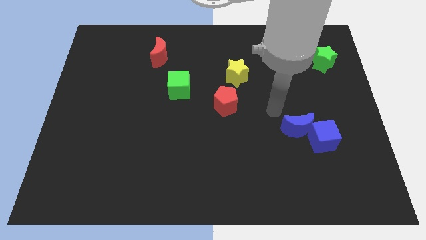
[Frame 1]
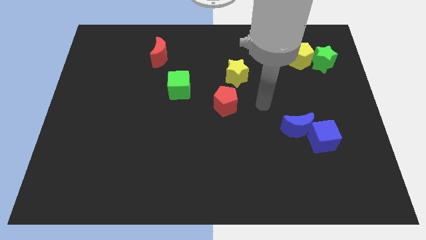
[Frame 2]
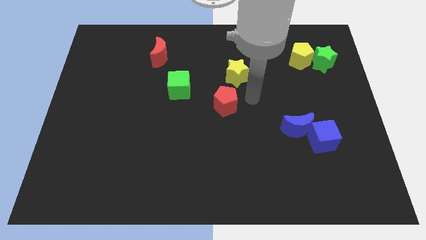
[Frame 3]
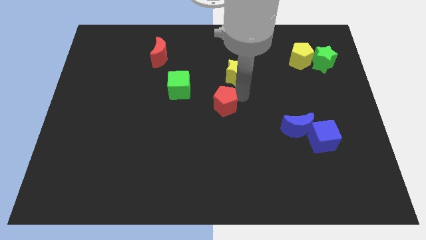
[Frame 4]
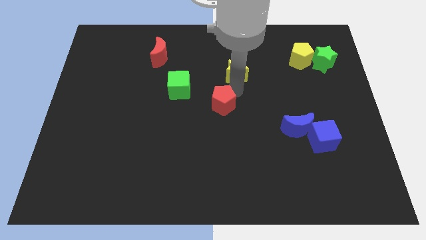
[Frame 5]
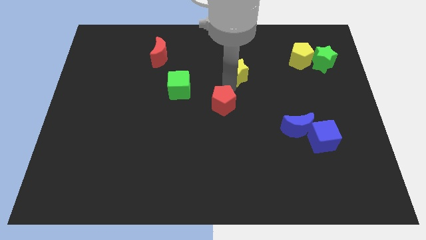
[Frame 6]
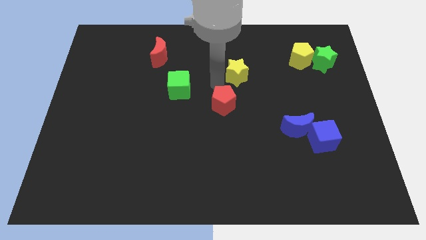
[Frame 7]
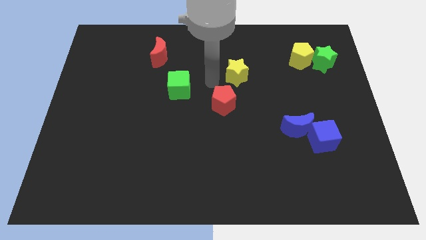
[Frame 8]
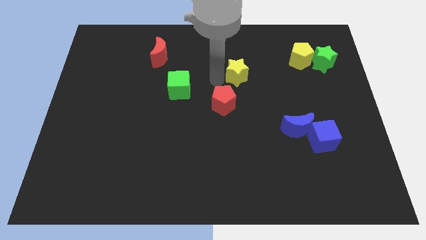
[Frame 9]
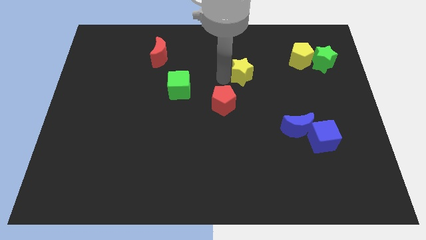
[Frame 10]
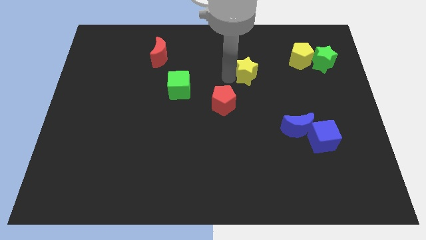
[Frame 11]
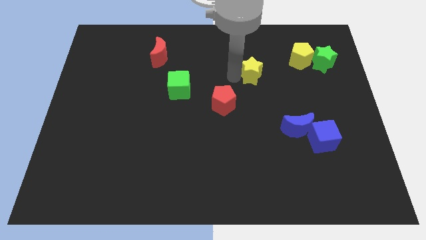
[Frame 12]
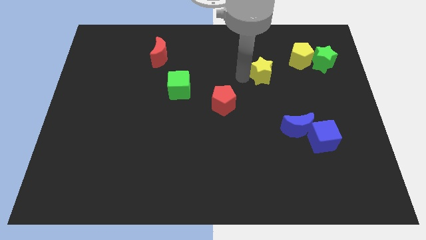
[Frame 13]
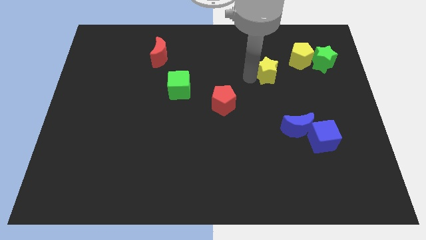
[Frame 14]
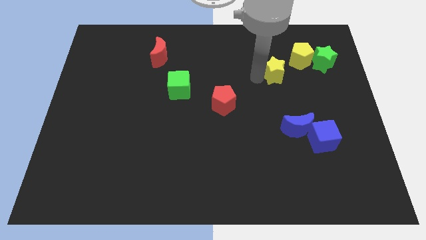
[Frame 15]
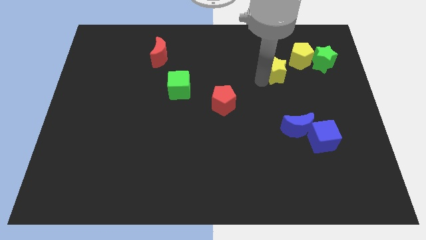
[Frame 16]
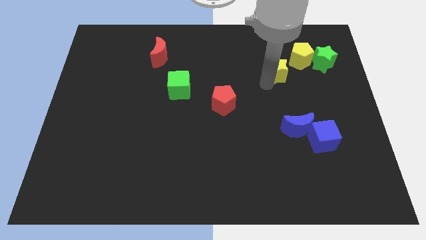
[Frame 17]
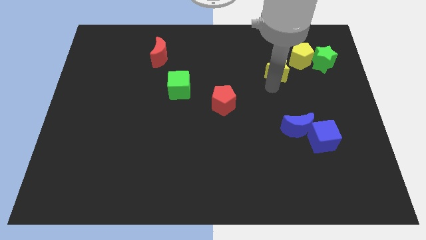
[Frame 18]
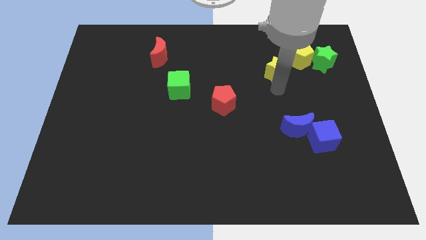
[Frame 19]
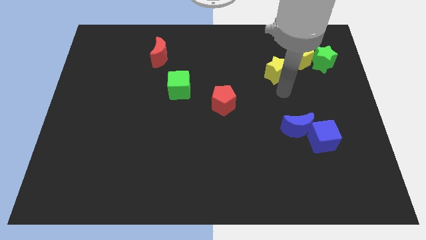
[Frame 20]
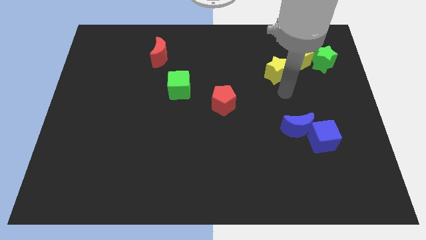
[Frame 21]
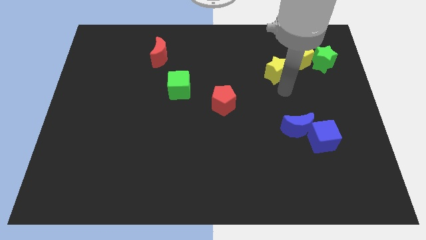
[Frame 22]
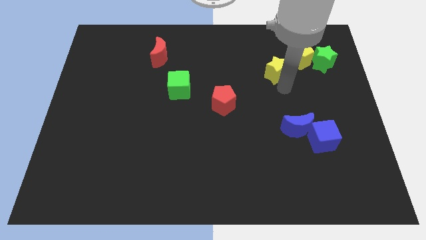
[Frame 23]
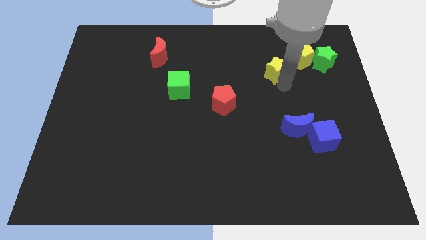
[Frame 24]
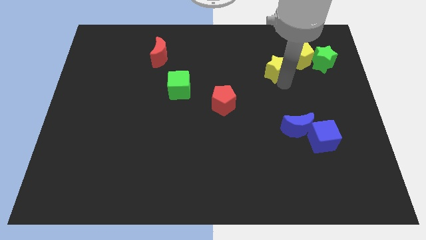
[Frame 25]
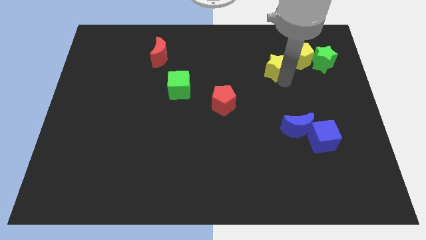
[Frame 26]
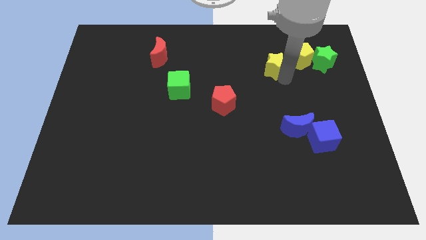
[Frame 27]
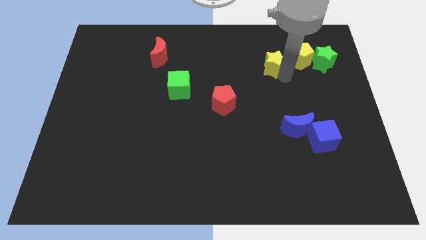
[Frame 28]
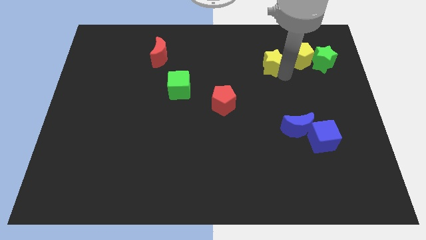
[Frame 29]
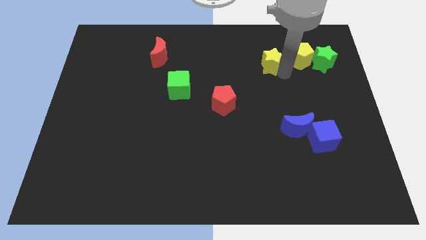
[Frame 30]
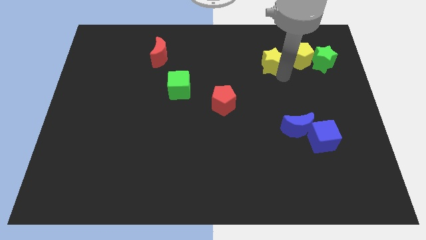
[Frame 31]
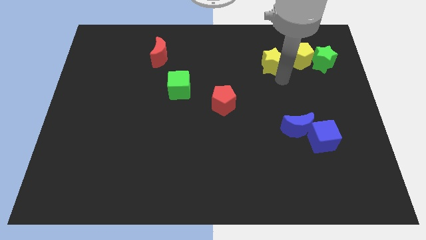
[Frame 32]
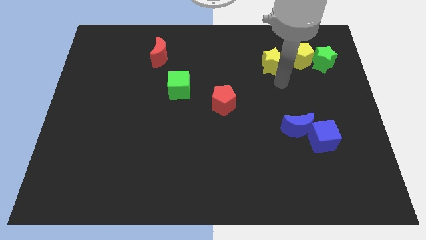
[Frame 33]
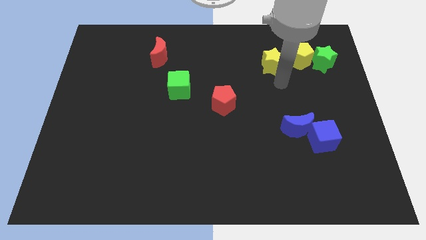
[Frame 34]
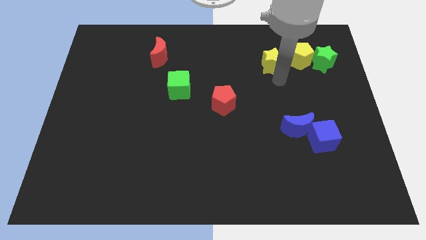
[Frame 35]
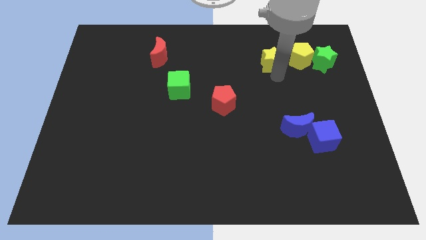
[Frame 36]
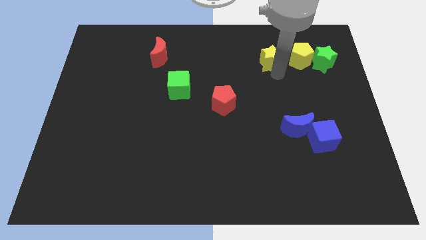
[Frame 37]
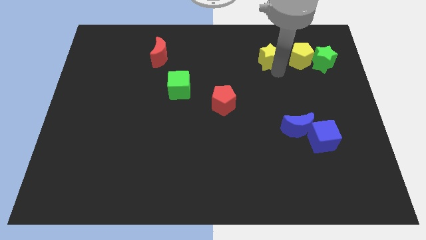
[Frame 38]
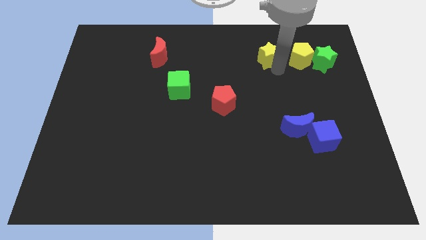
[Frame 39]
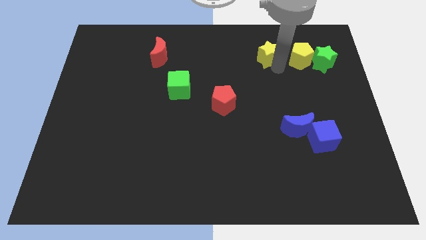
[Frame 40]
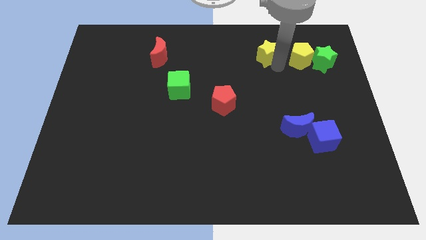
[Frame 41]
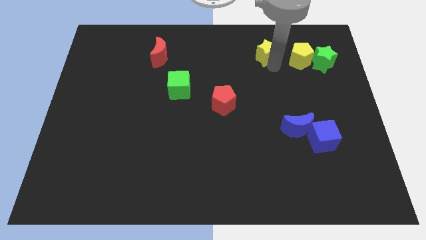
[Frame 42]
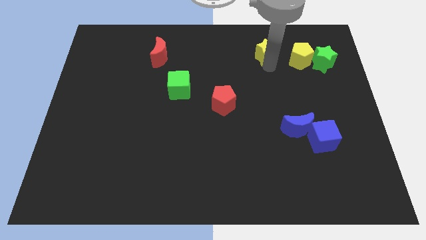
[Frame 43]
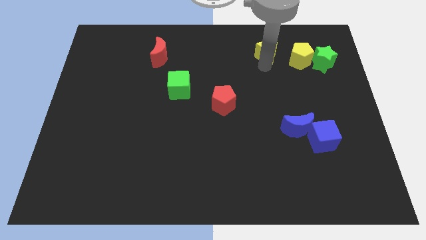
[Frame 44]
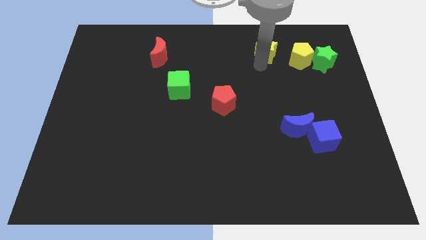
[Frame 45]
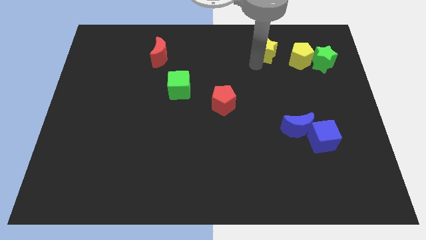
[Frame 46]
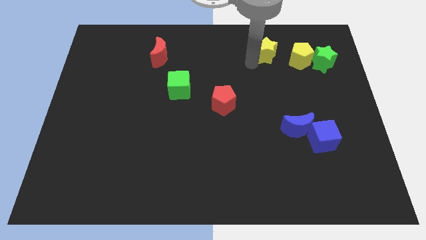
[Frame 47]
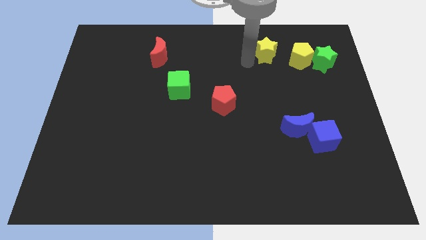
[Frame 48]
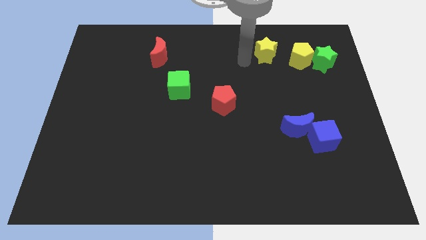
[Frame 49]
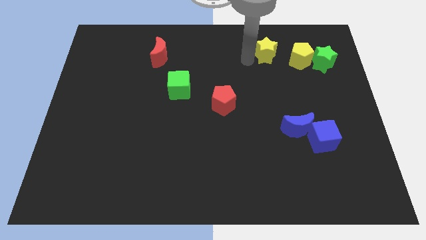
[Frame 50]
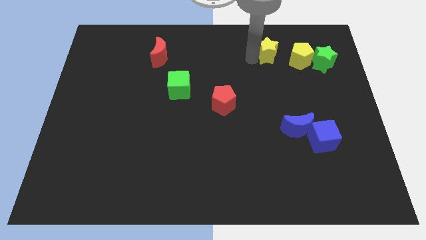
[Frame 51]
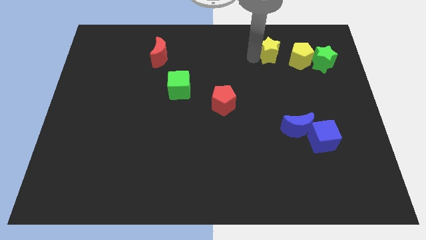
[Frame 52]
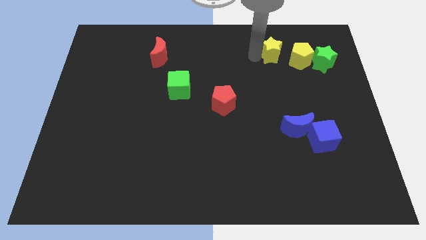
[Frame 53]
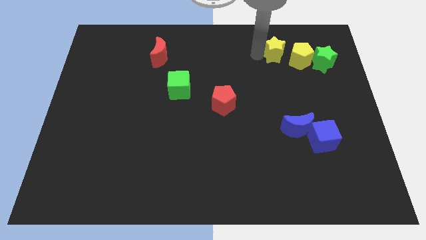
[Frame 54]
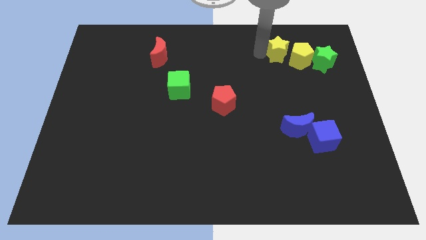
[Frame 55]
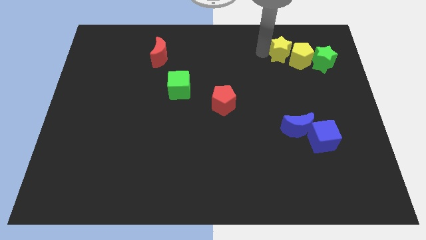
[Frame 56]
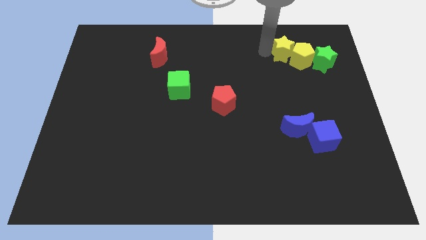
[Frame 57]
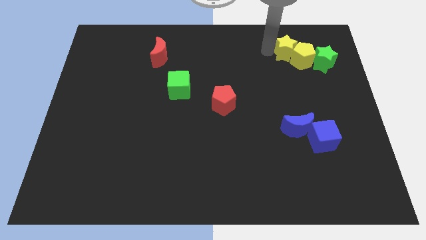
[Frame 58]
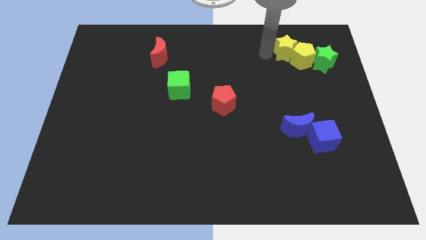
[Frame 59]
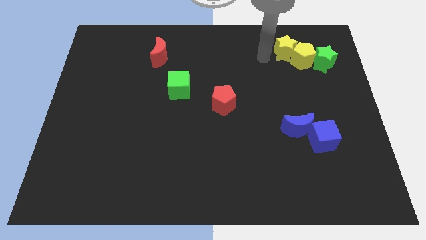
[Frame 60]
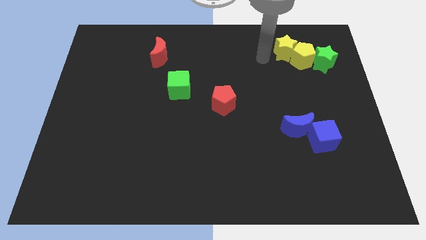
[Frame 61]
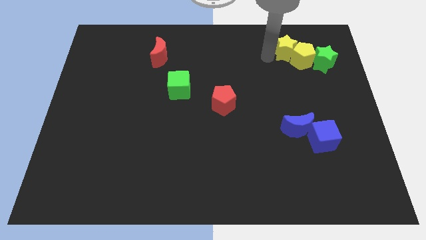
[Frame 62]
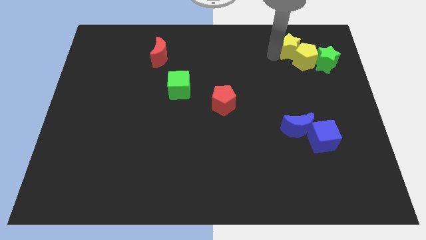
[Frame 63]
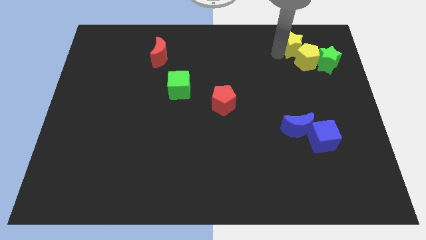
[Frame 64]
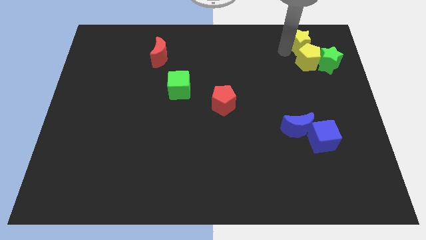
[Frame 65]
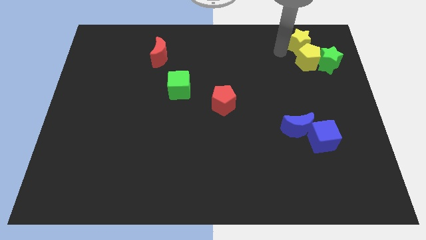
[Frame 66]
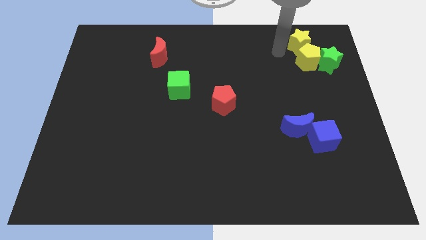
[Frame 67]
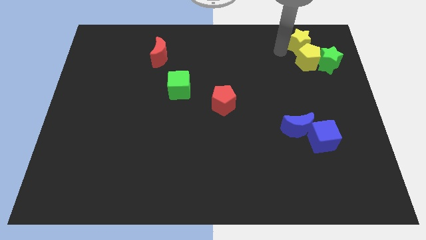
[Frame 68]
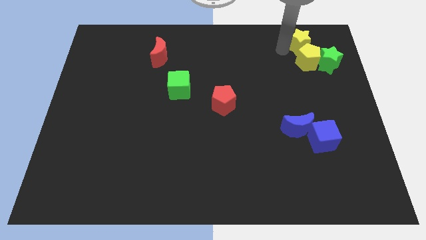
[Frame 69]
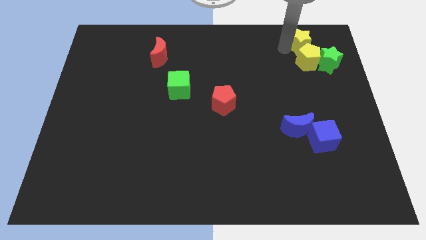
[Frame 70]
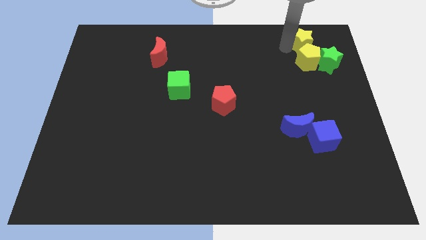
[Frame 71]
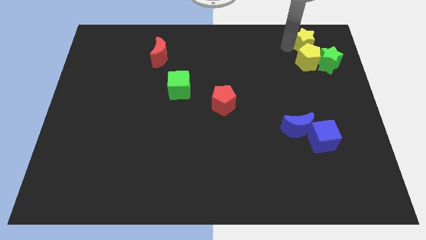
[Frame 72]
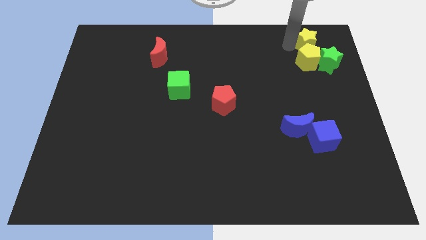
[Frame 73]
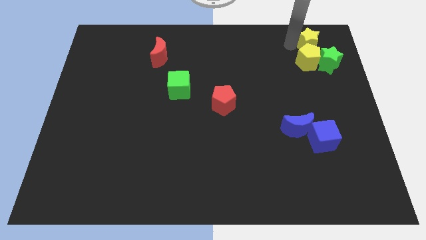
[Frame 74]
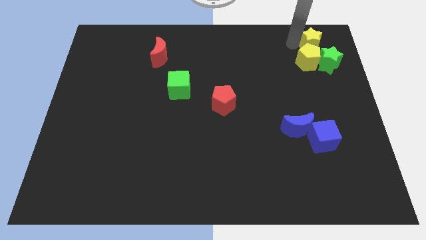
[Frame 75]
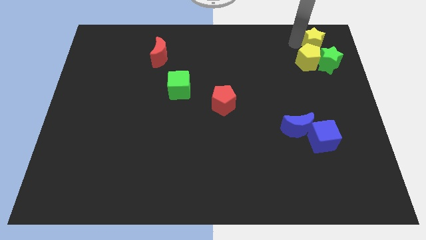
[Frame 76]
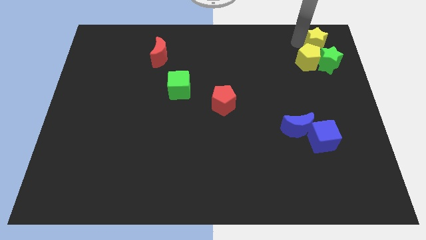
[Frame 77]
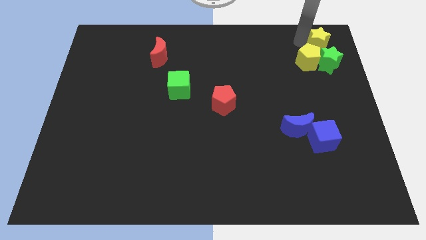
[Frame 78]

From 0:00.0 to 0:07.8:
push the yellow star to the top right corner
